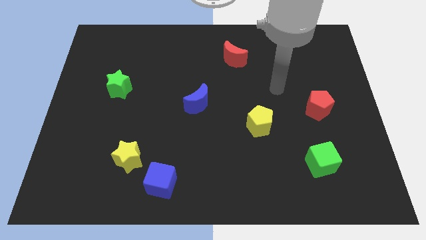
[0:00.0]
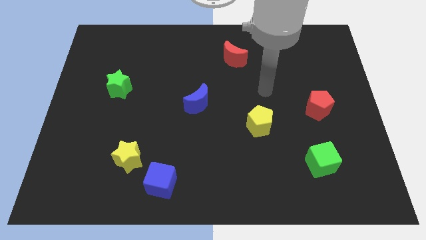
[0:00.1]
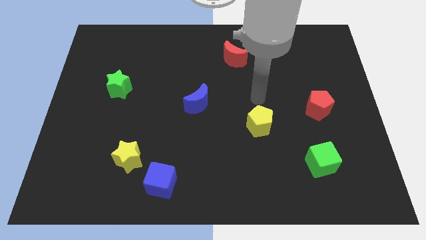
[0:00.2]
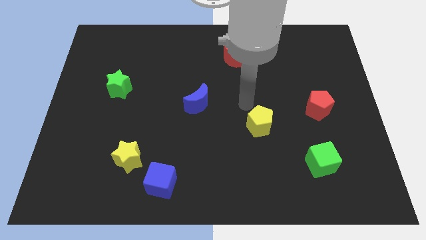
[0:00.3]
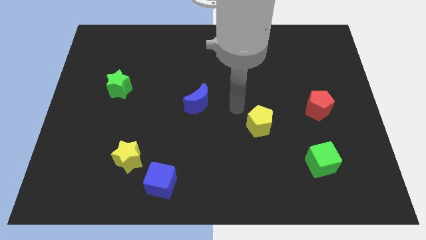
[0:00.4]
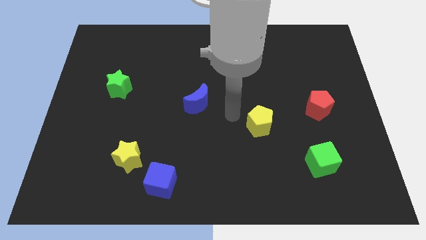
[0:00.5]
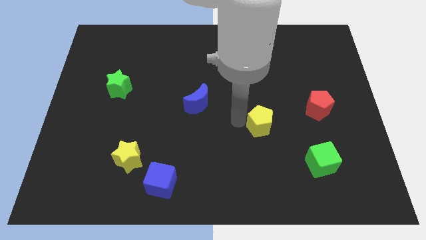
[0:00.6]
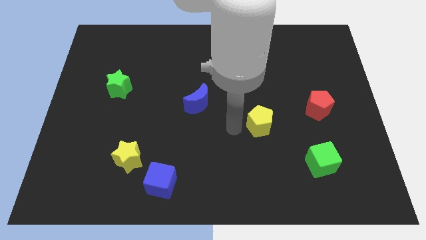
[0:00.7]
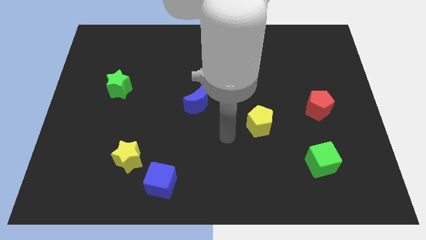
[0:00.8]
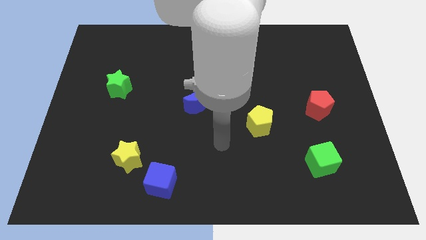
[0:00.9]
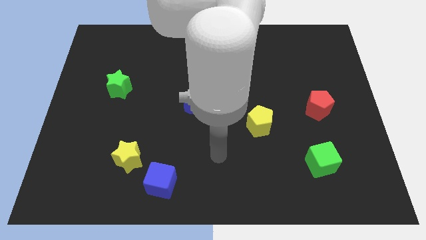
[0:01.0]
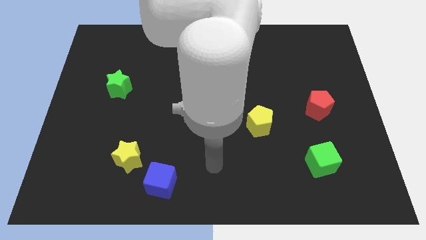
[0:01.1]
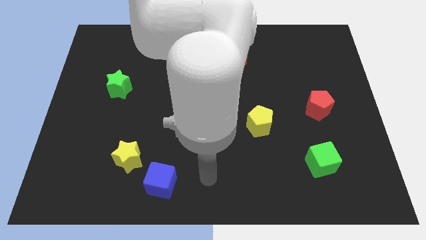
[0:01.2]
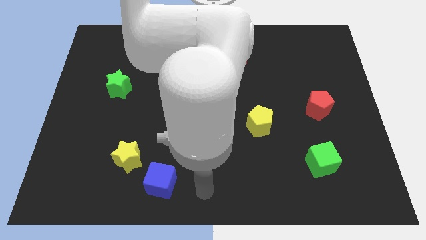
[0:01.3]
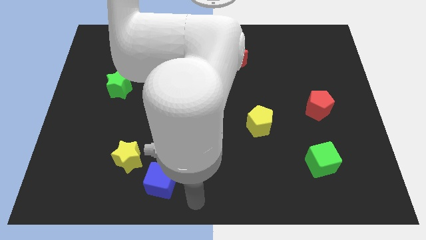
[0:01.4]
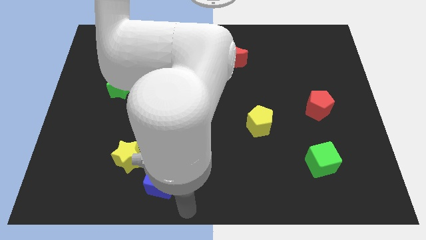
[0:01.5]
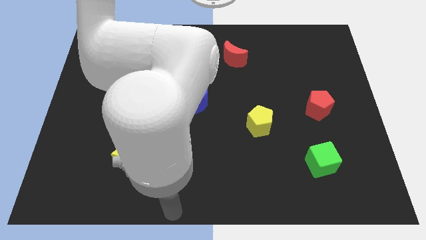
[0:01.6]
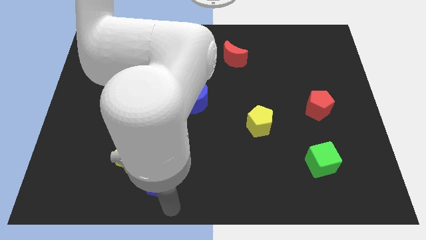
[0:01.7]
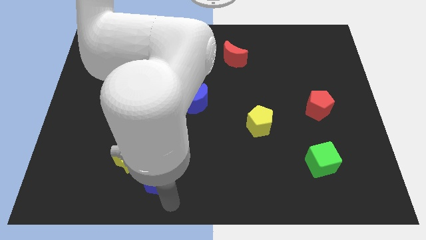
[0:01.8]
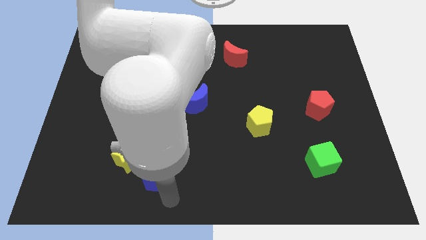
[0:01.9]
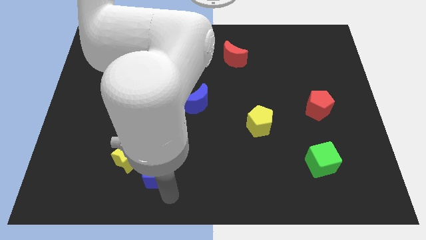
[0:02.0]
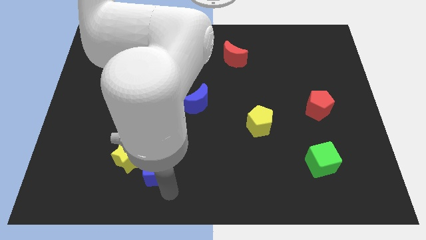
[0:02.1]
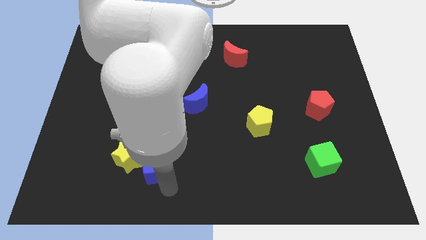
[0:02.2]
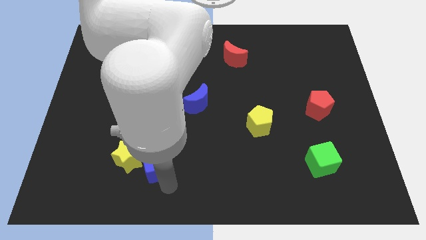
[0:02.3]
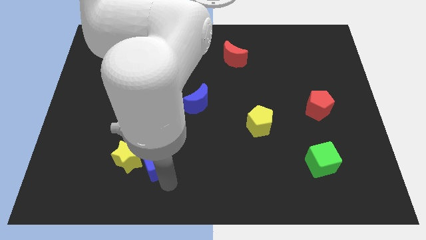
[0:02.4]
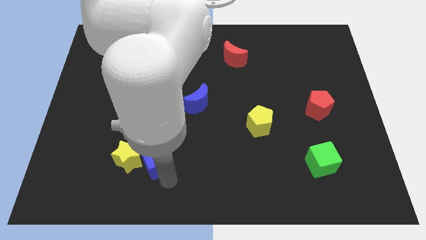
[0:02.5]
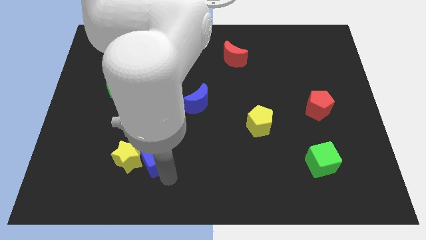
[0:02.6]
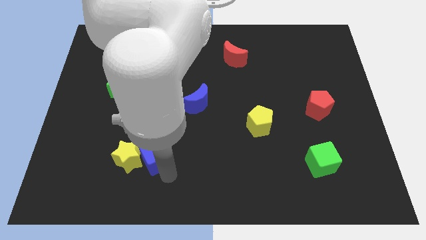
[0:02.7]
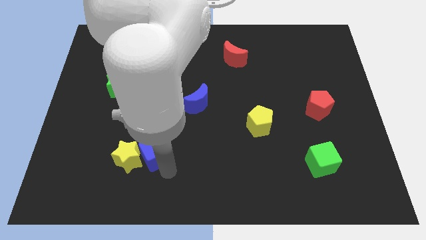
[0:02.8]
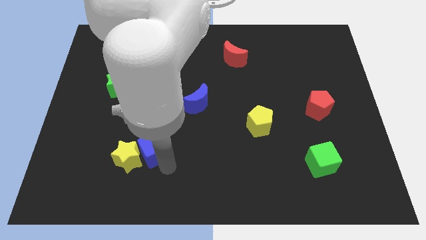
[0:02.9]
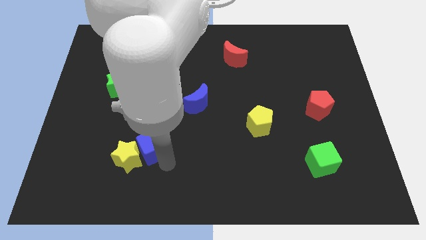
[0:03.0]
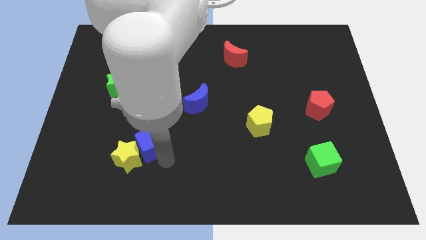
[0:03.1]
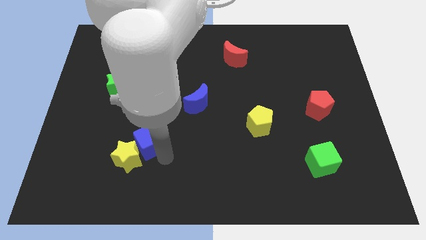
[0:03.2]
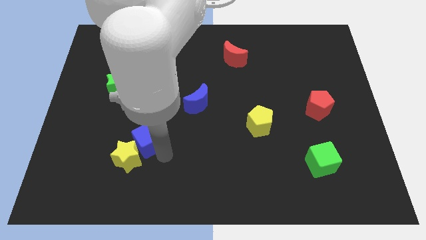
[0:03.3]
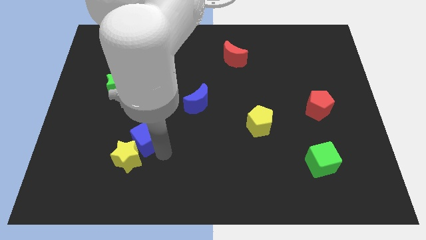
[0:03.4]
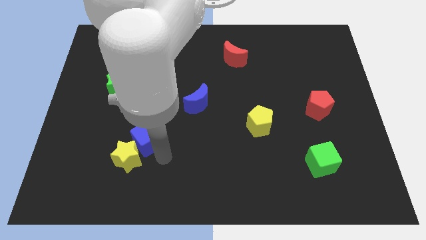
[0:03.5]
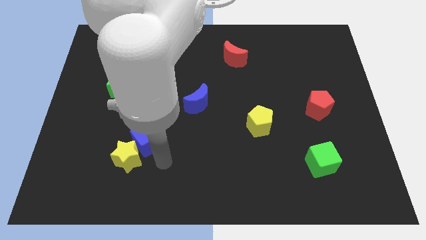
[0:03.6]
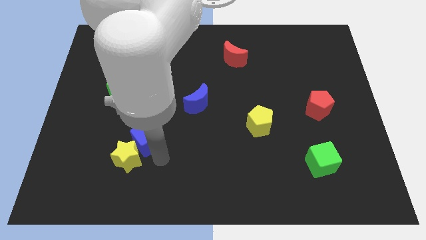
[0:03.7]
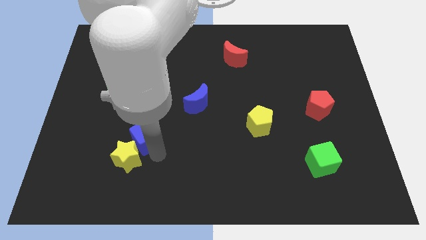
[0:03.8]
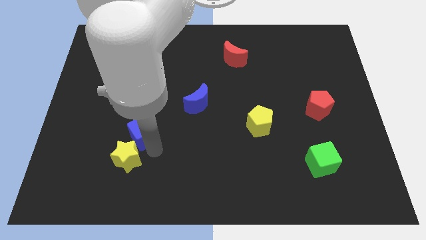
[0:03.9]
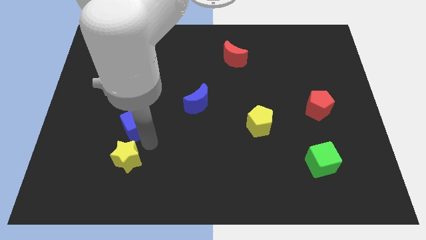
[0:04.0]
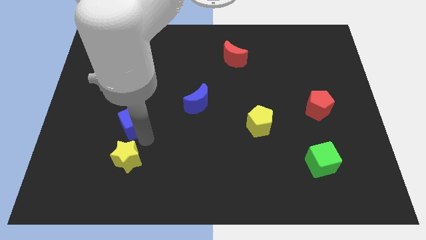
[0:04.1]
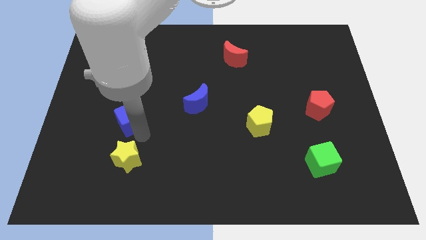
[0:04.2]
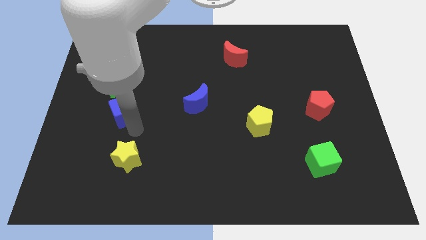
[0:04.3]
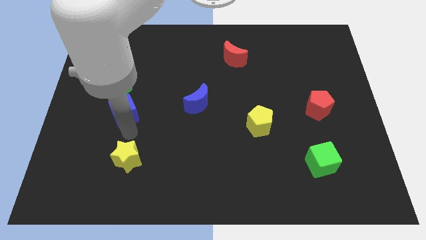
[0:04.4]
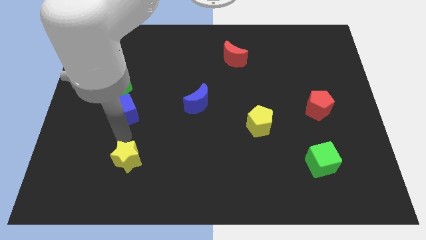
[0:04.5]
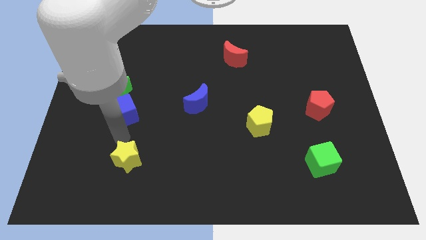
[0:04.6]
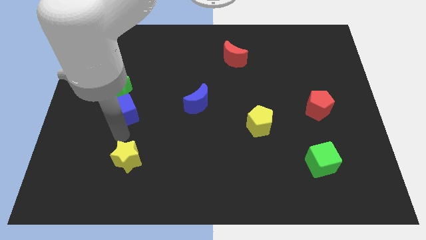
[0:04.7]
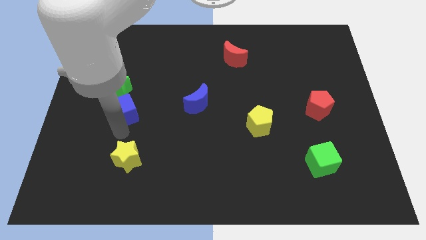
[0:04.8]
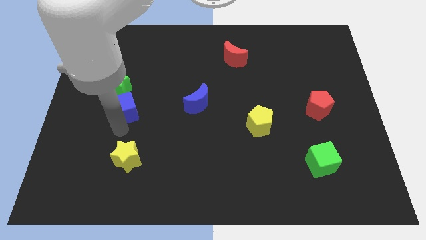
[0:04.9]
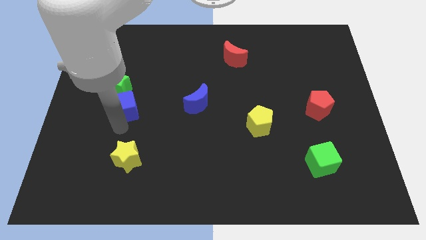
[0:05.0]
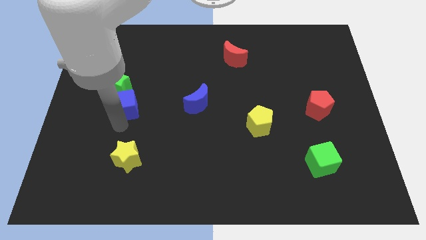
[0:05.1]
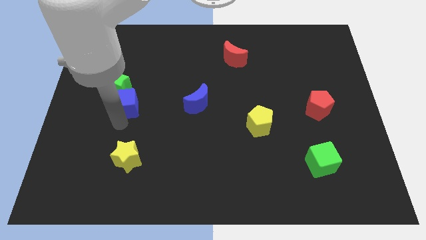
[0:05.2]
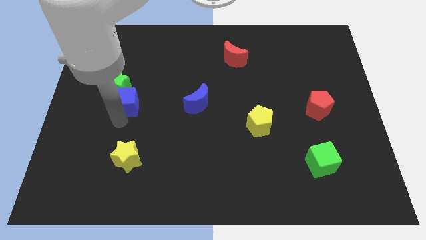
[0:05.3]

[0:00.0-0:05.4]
move the blue cube close to the green star

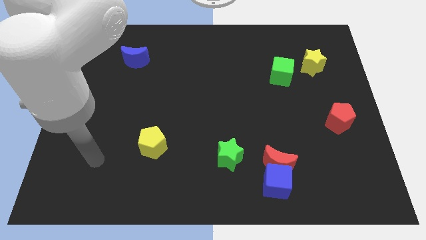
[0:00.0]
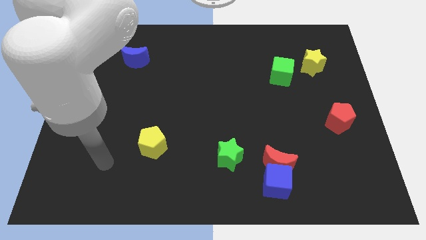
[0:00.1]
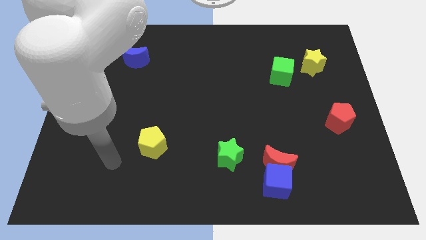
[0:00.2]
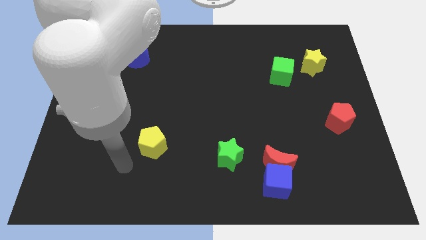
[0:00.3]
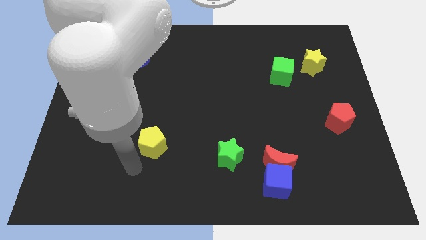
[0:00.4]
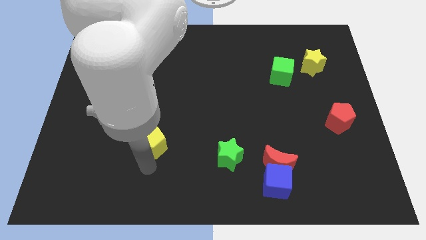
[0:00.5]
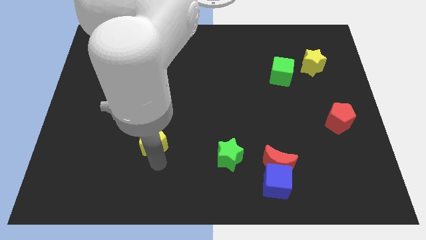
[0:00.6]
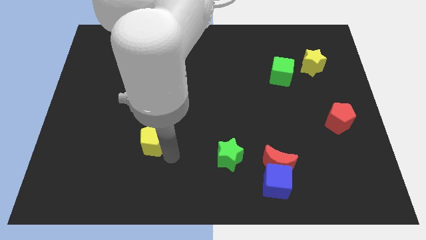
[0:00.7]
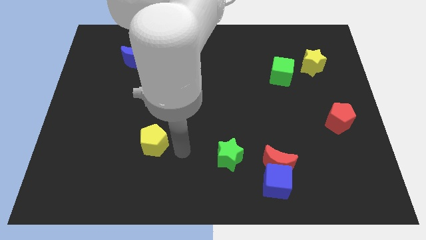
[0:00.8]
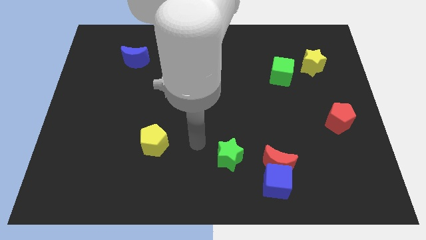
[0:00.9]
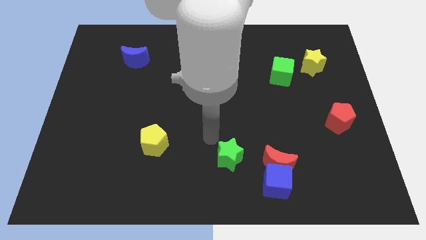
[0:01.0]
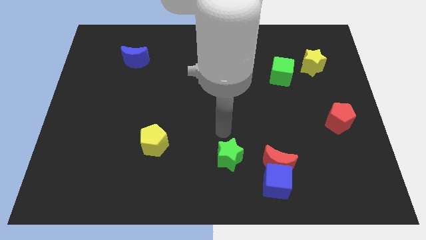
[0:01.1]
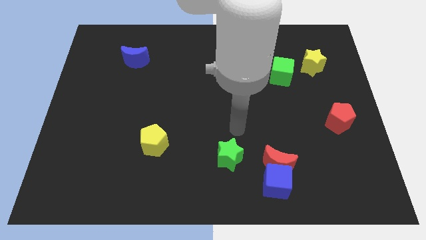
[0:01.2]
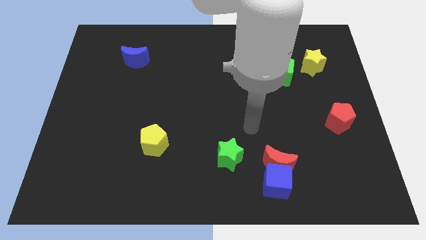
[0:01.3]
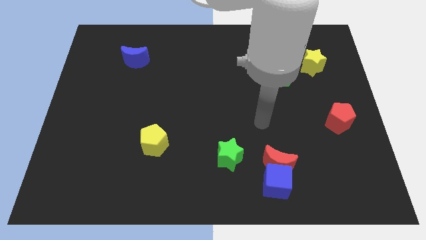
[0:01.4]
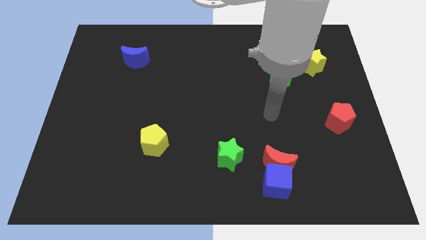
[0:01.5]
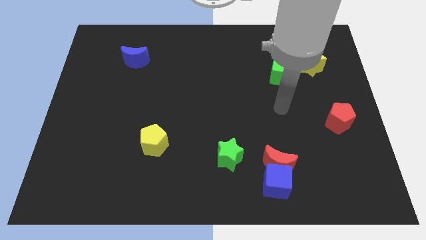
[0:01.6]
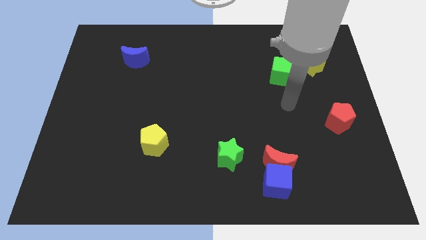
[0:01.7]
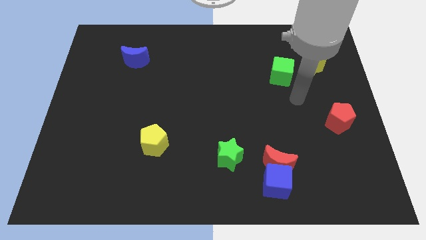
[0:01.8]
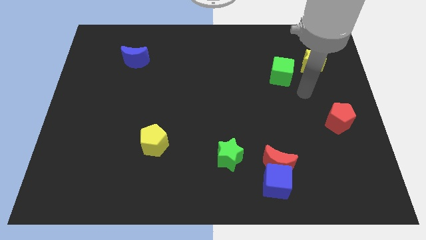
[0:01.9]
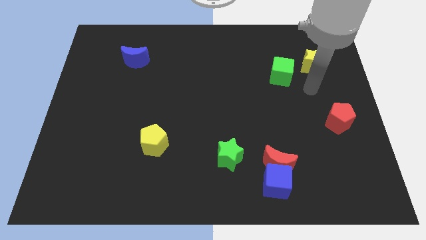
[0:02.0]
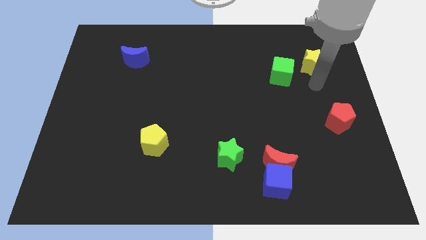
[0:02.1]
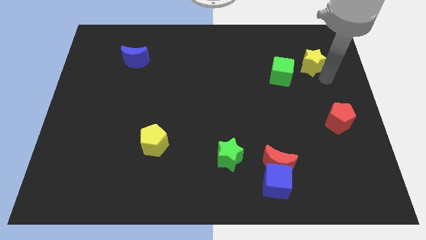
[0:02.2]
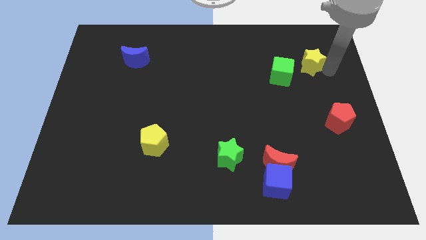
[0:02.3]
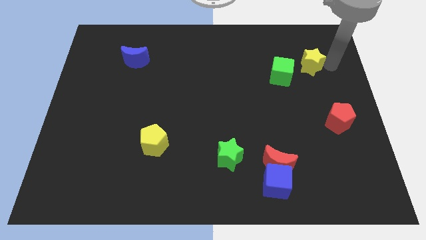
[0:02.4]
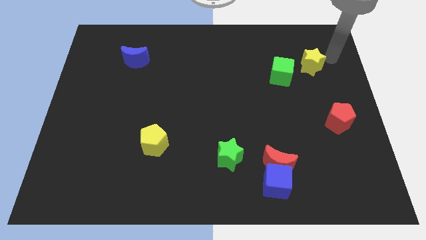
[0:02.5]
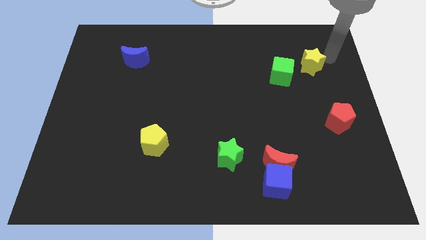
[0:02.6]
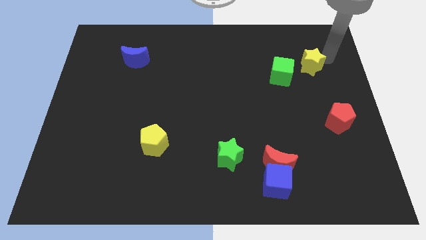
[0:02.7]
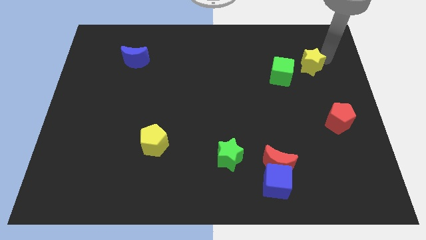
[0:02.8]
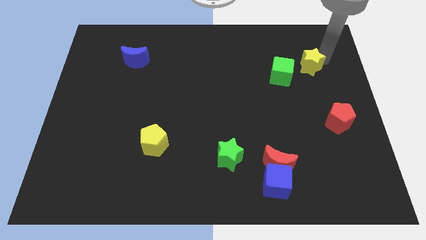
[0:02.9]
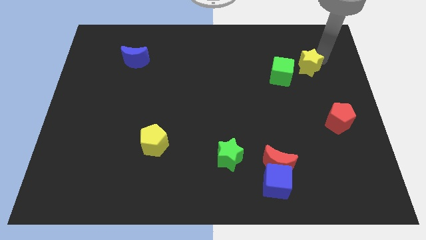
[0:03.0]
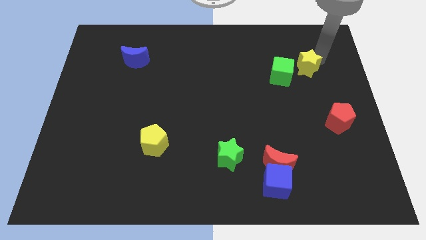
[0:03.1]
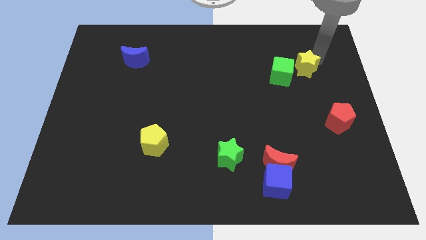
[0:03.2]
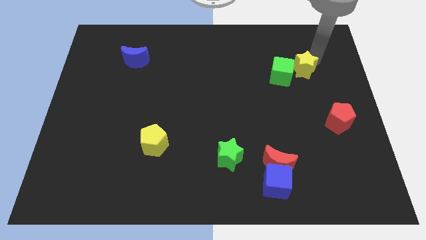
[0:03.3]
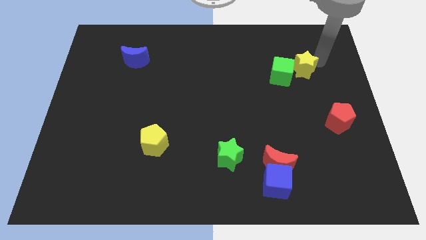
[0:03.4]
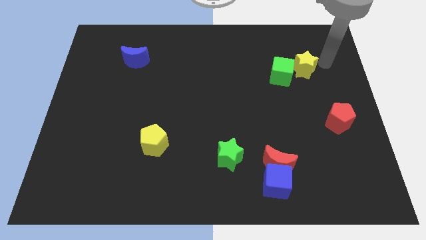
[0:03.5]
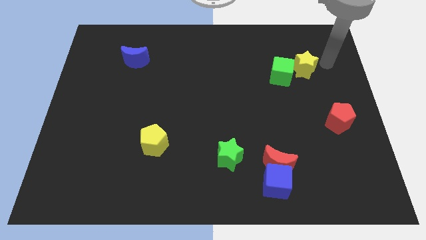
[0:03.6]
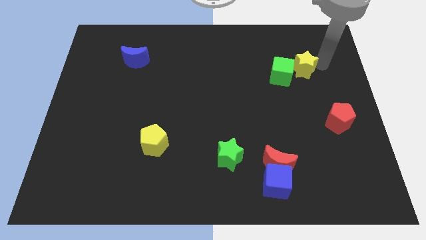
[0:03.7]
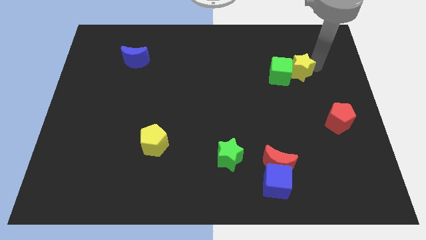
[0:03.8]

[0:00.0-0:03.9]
push the yellow star next to the green cube
